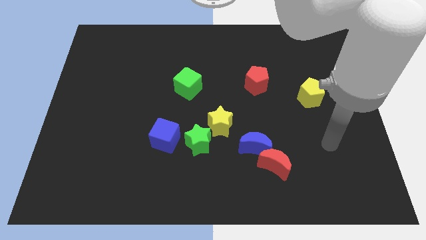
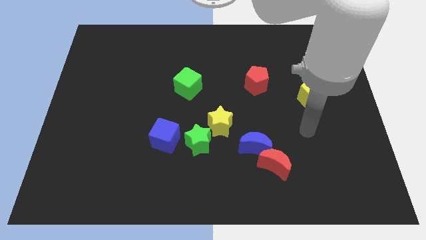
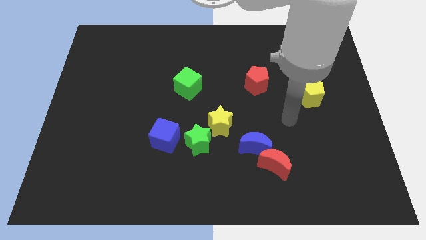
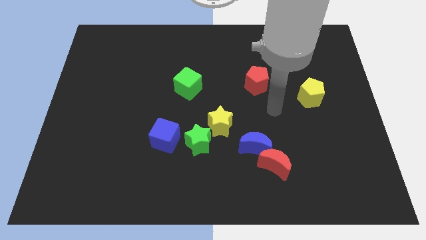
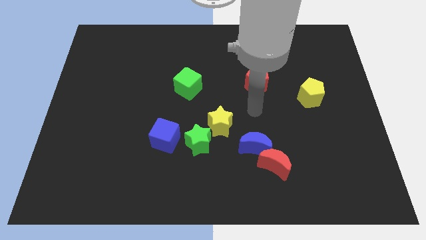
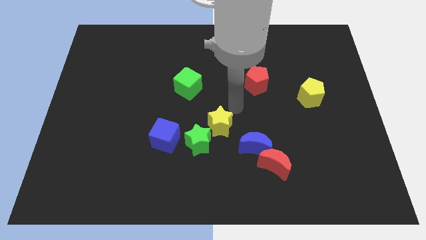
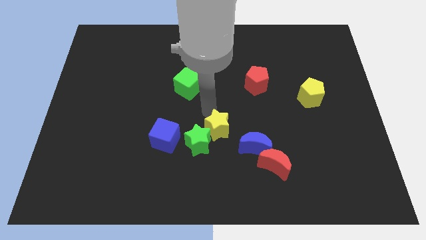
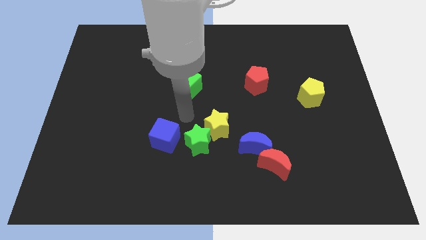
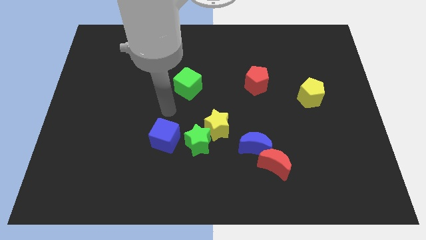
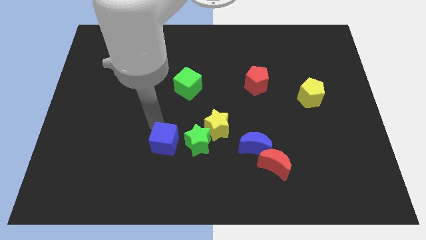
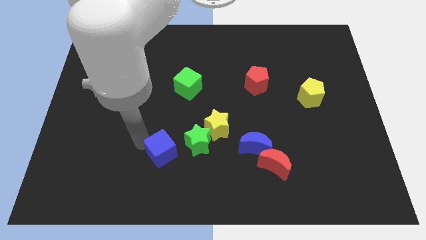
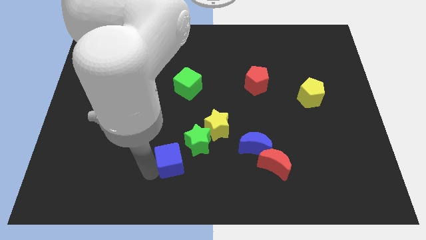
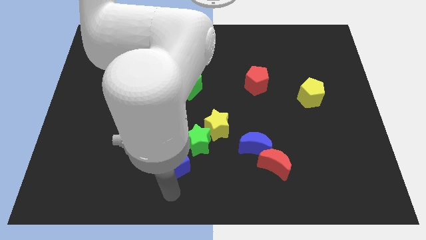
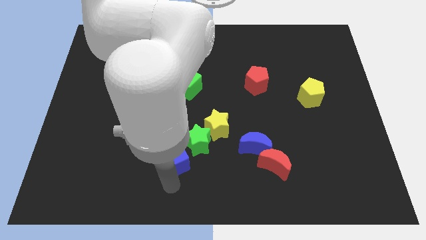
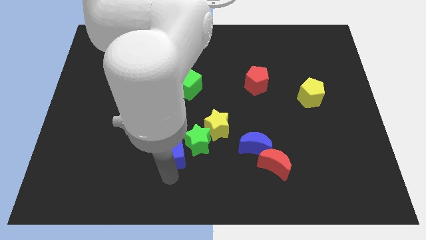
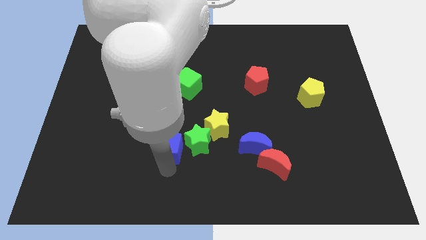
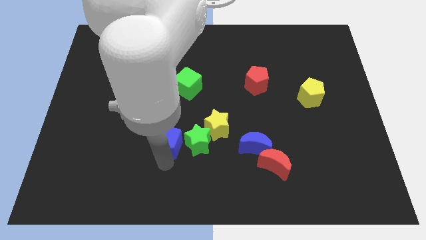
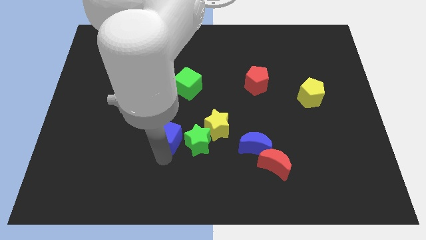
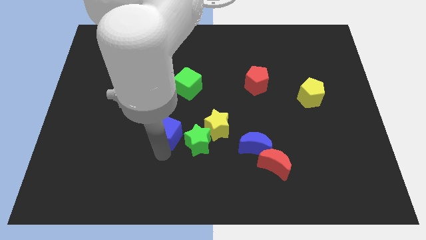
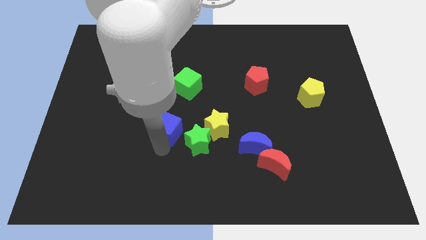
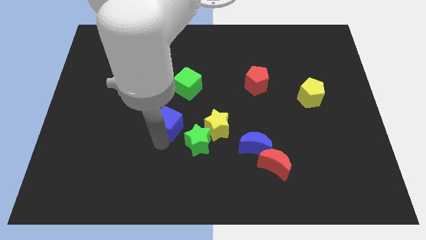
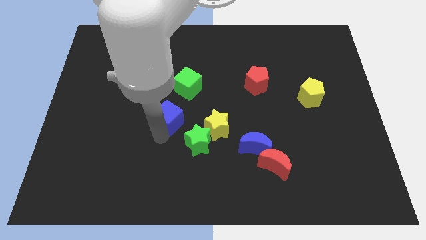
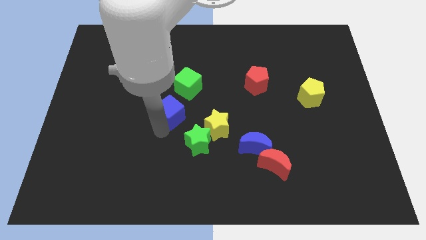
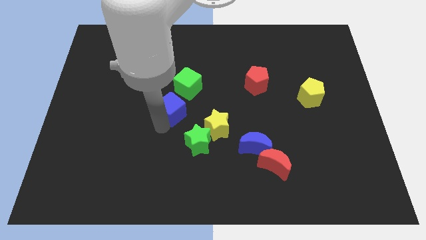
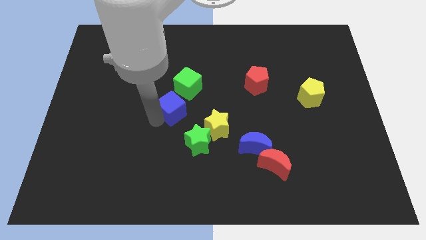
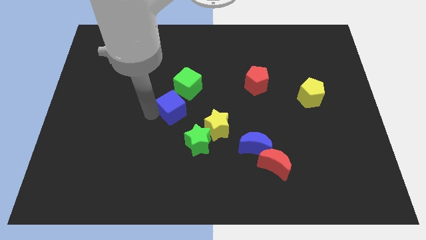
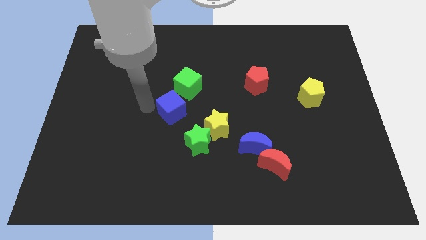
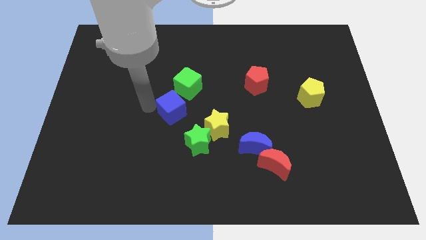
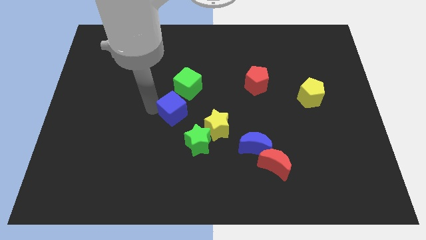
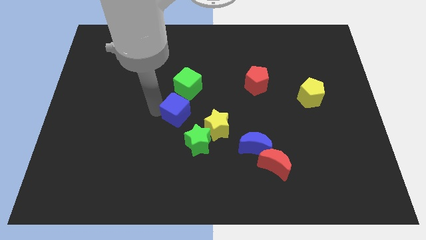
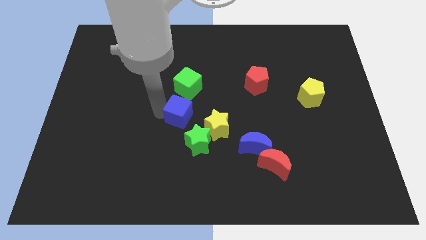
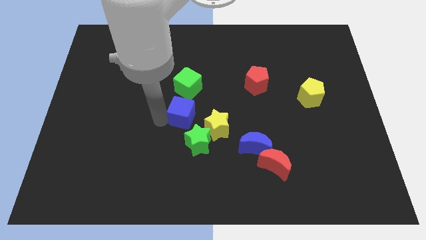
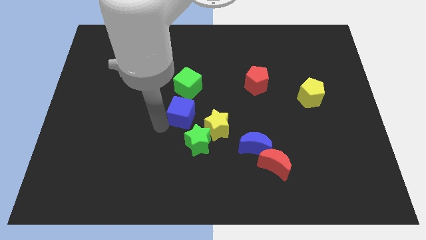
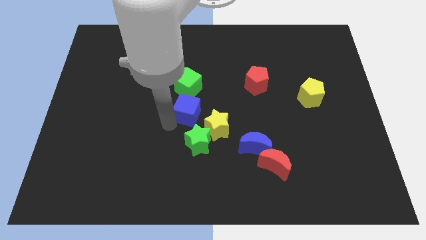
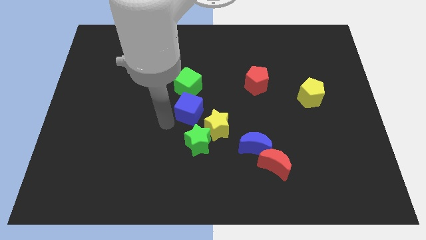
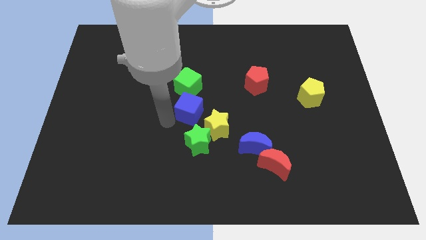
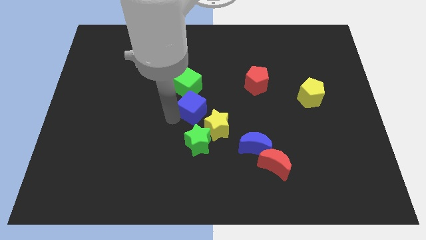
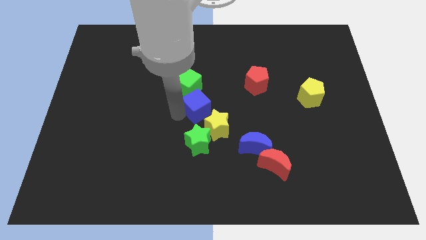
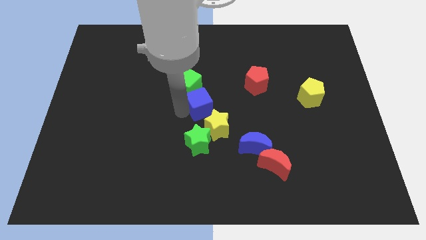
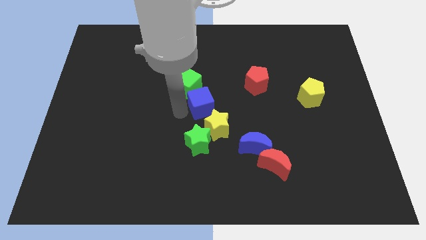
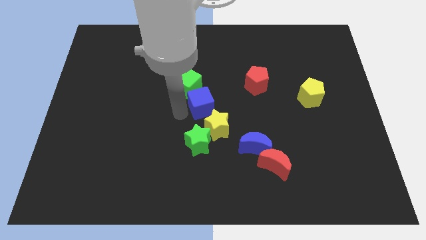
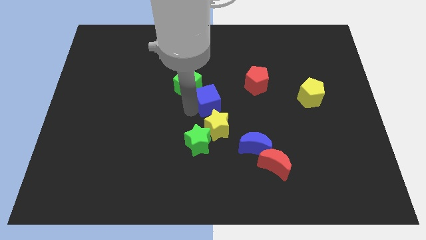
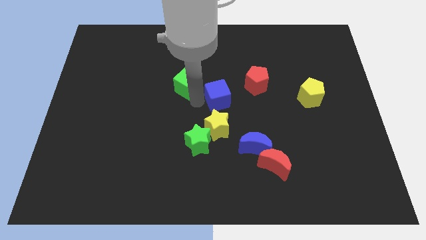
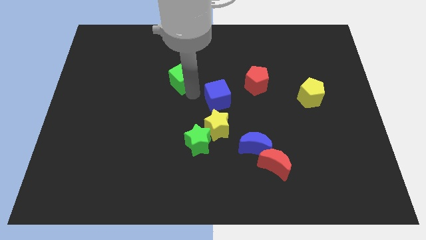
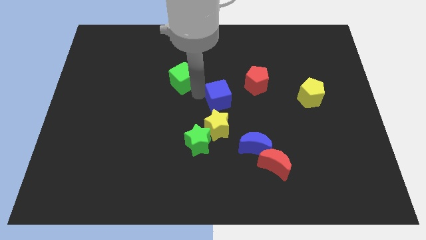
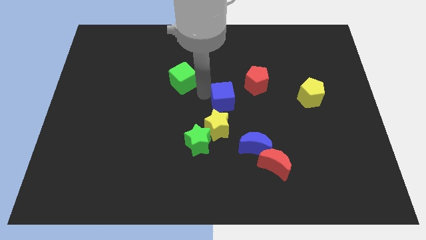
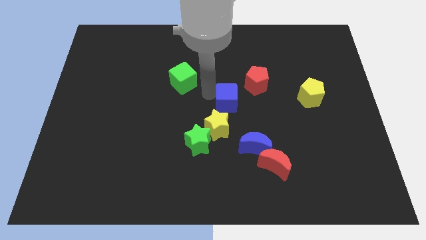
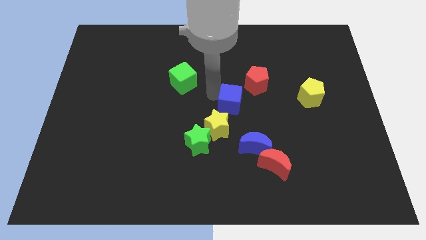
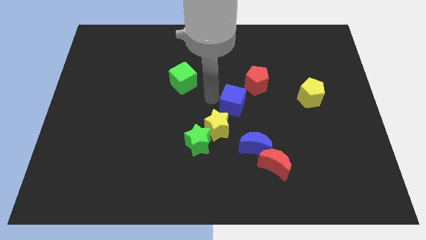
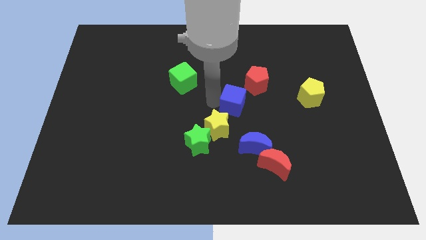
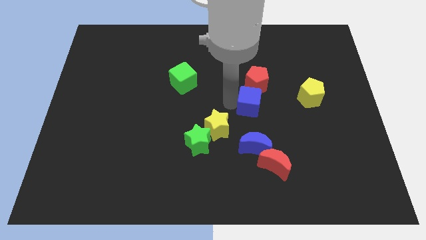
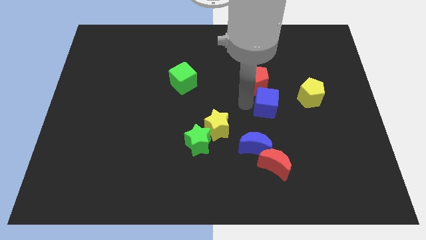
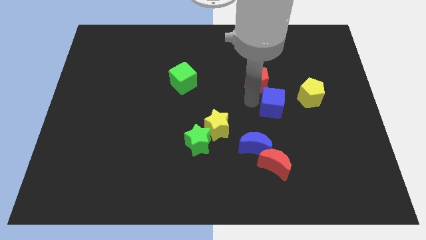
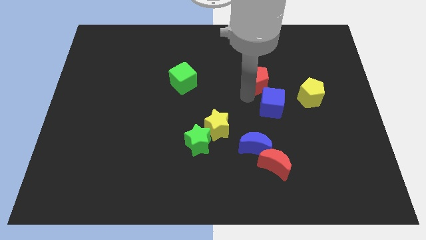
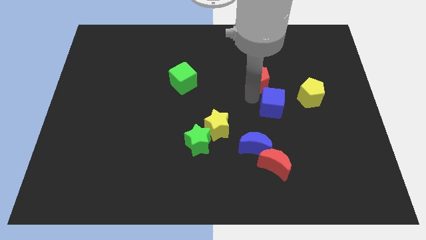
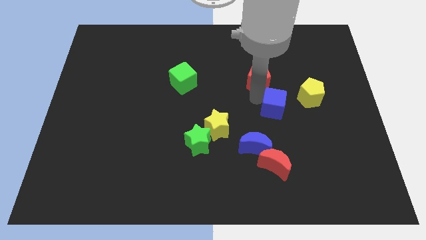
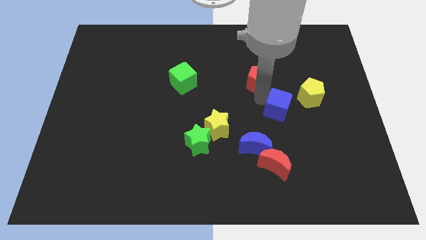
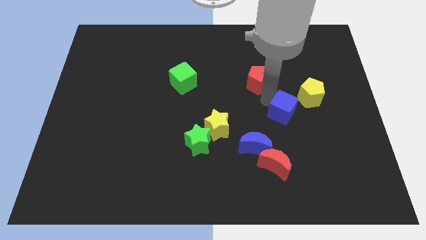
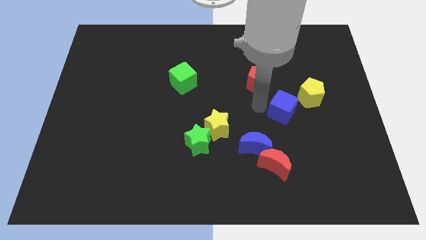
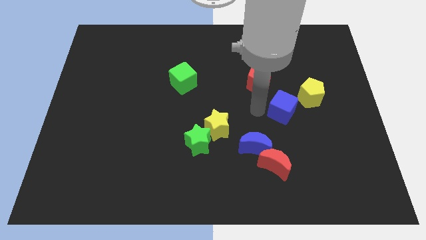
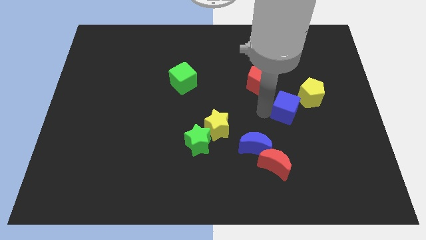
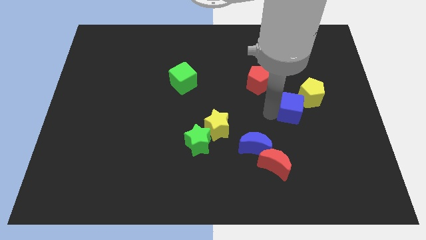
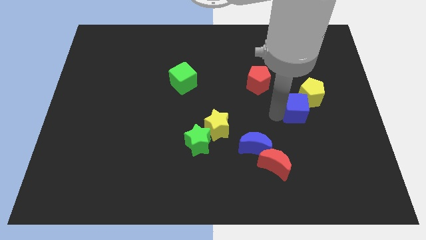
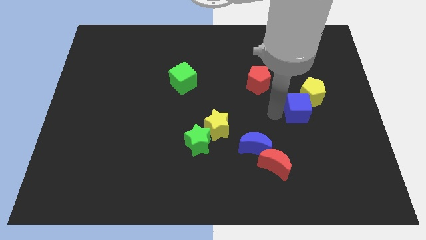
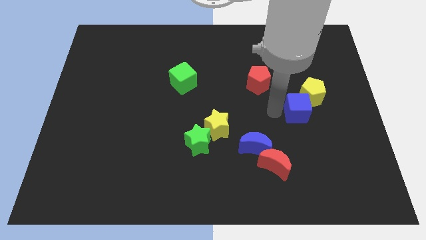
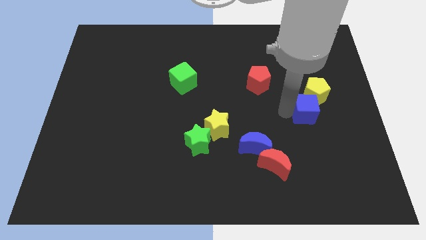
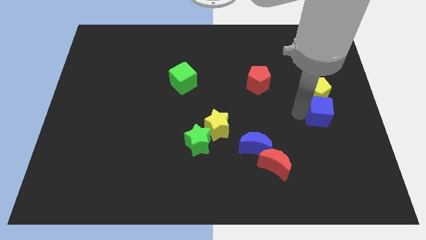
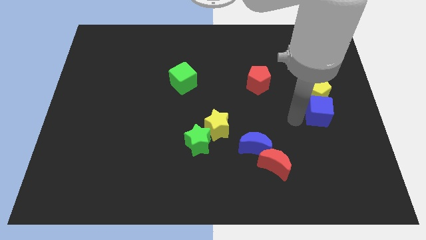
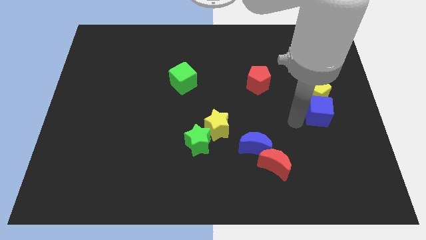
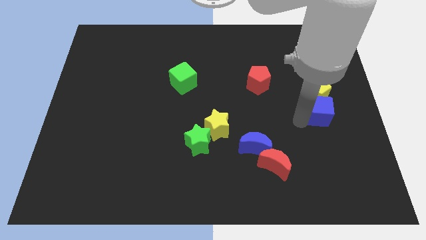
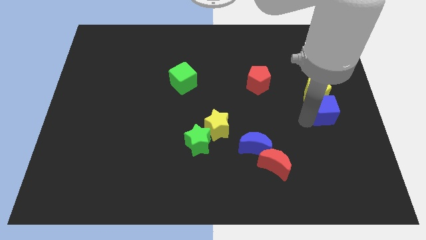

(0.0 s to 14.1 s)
move the blue cube to the right side
